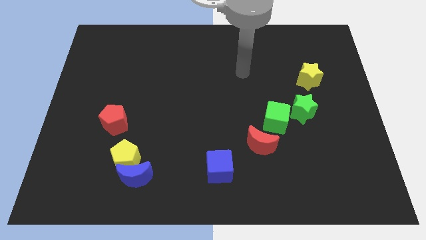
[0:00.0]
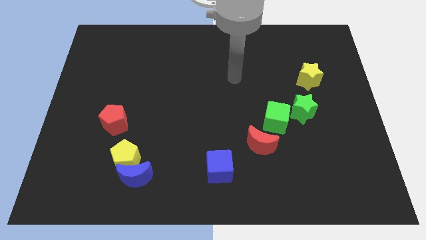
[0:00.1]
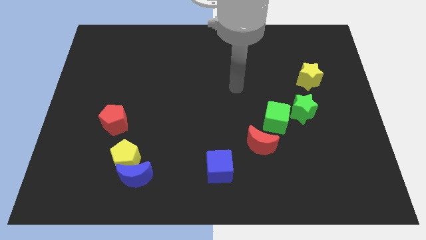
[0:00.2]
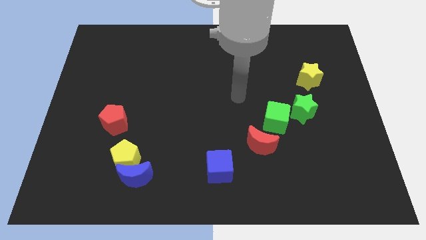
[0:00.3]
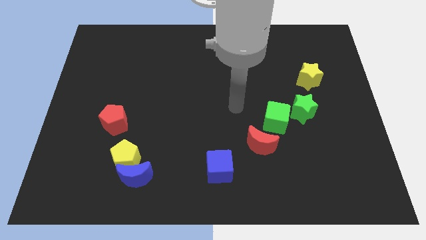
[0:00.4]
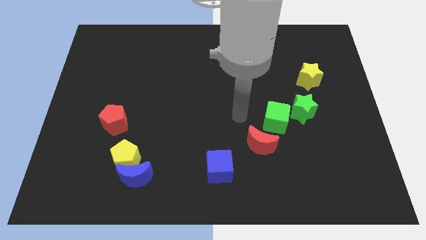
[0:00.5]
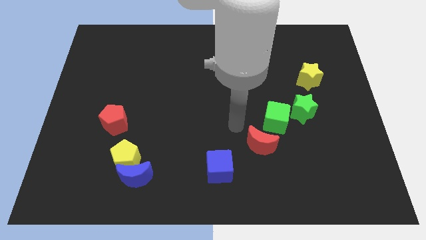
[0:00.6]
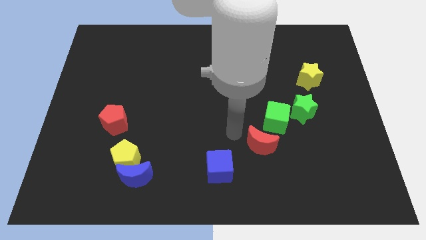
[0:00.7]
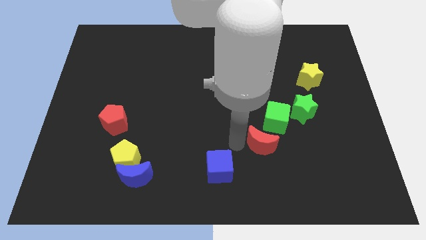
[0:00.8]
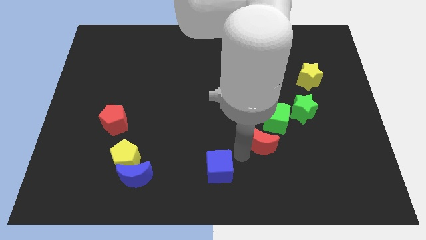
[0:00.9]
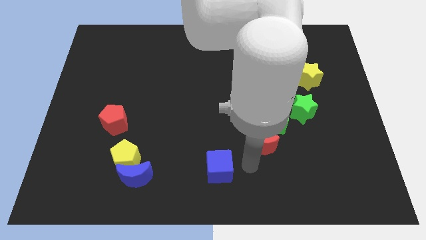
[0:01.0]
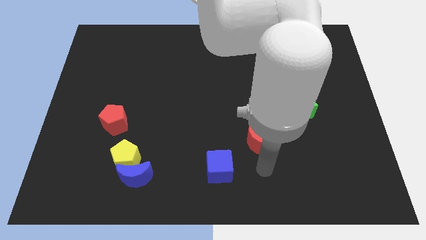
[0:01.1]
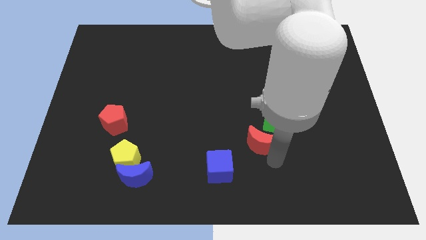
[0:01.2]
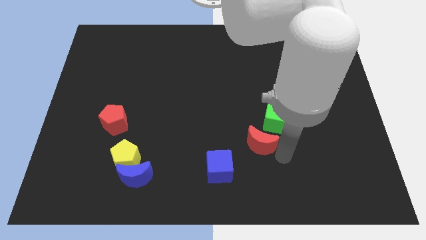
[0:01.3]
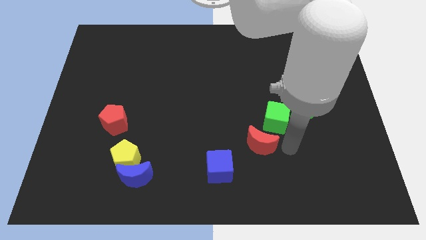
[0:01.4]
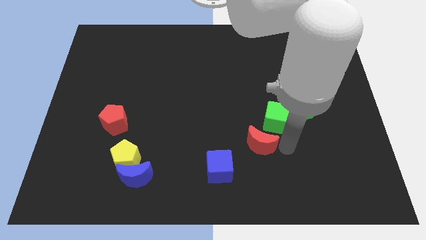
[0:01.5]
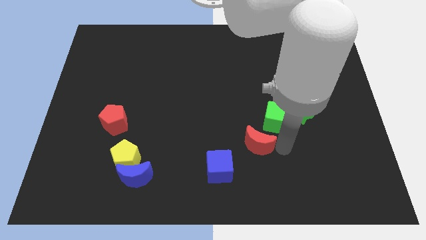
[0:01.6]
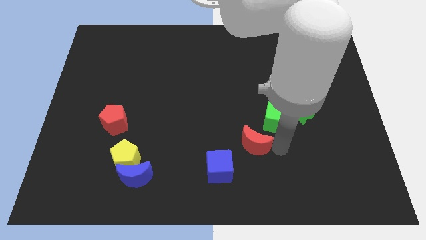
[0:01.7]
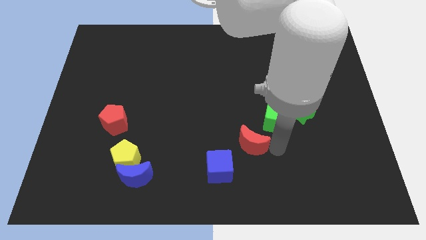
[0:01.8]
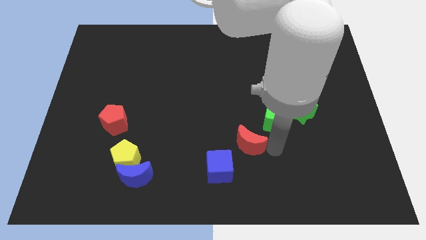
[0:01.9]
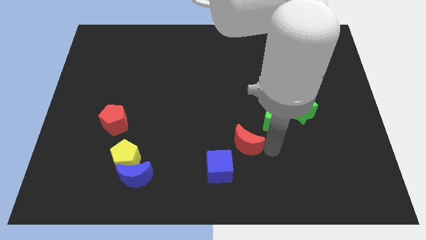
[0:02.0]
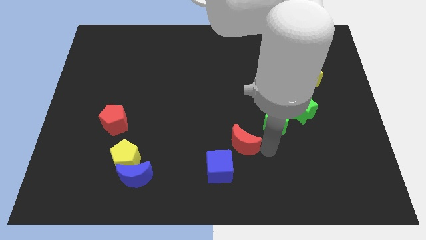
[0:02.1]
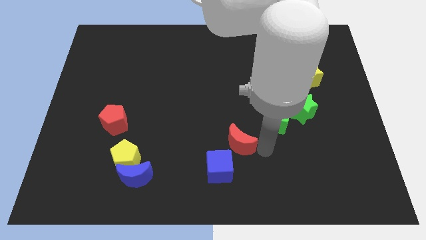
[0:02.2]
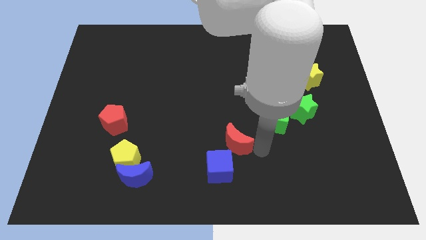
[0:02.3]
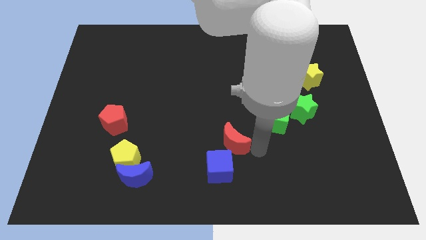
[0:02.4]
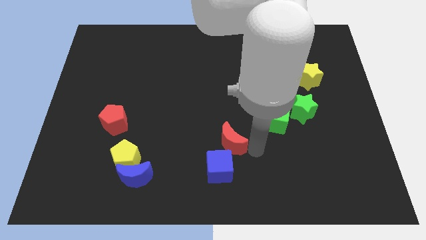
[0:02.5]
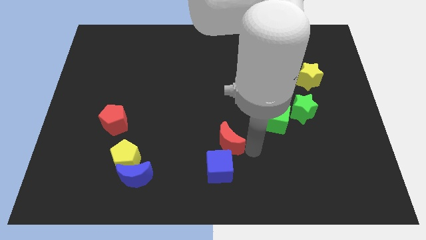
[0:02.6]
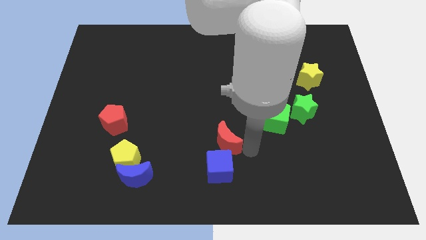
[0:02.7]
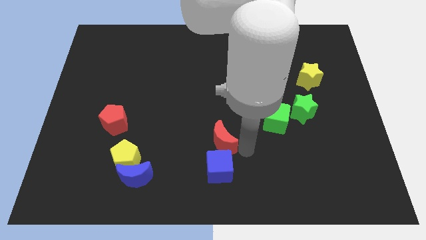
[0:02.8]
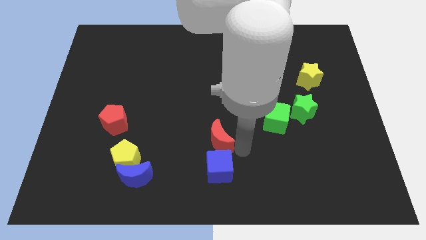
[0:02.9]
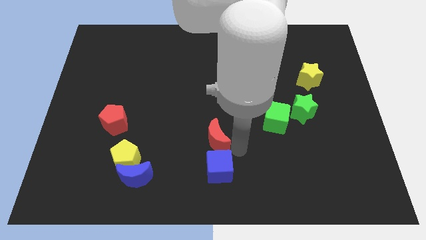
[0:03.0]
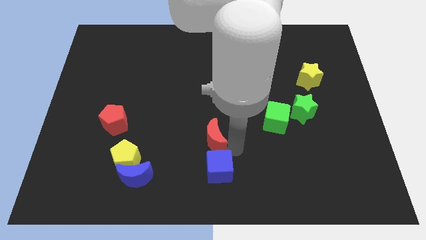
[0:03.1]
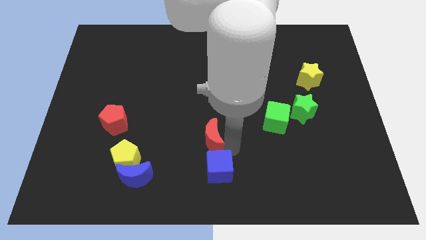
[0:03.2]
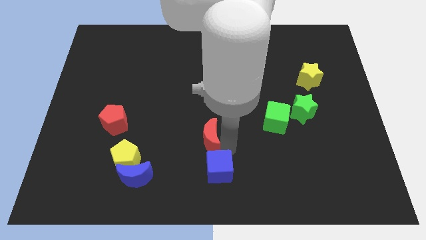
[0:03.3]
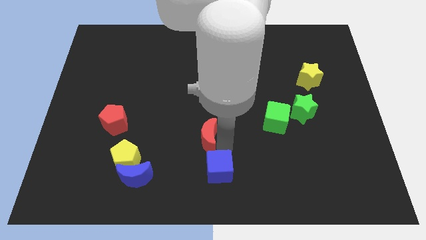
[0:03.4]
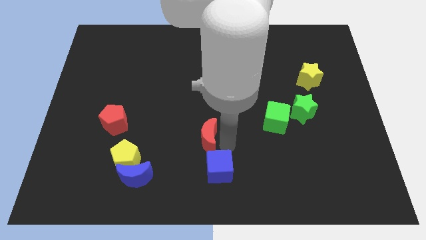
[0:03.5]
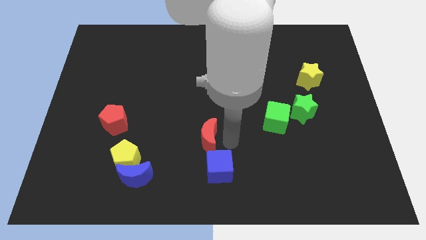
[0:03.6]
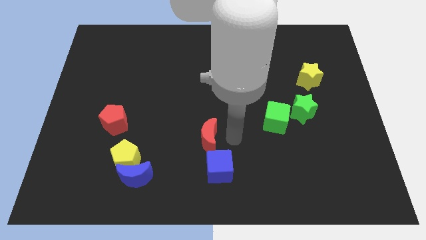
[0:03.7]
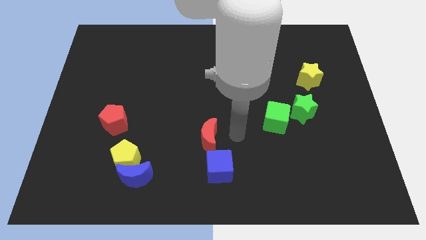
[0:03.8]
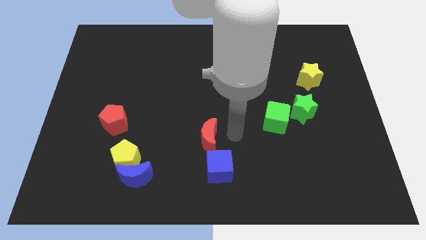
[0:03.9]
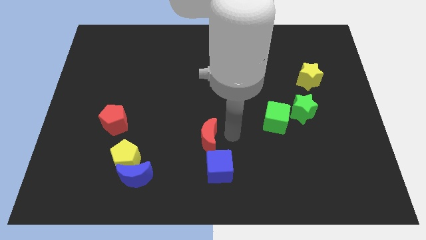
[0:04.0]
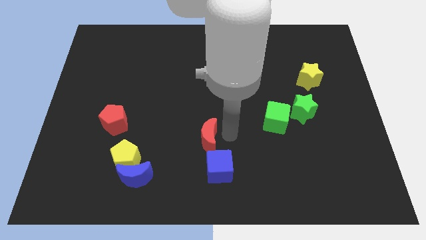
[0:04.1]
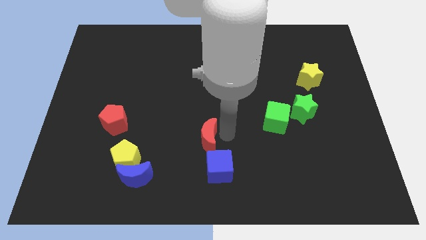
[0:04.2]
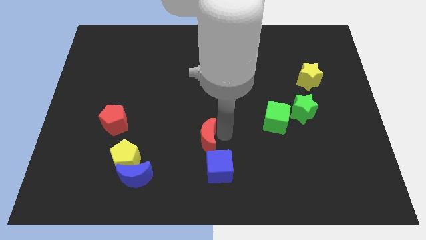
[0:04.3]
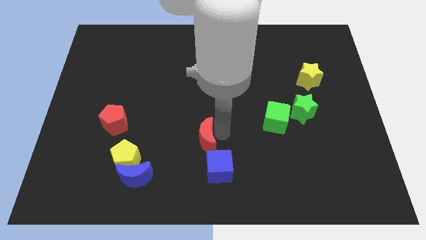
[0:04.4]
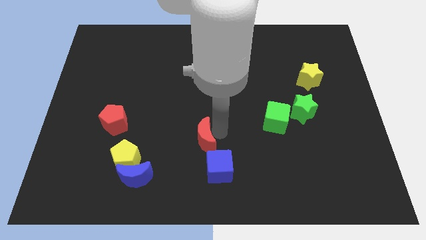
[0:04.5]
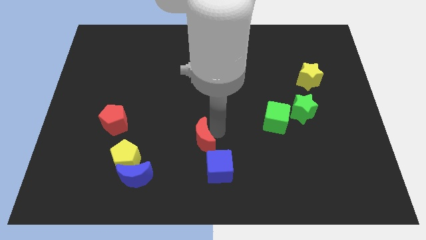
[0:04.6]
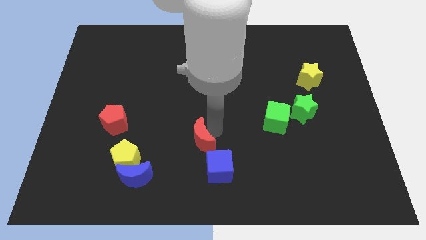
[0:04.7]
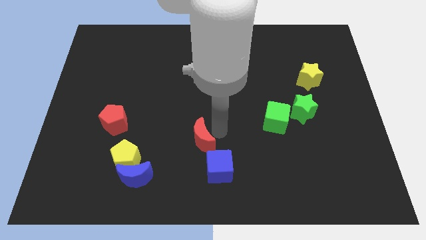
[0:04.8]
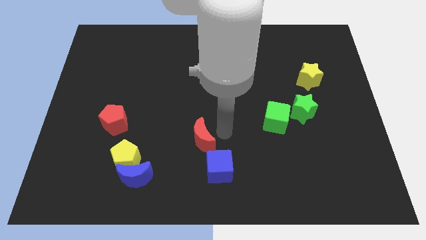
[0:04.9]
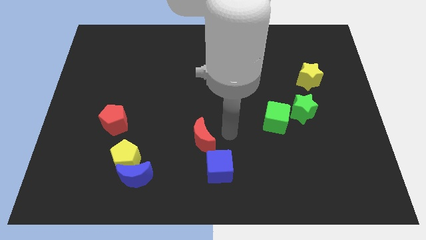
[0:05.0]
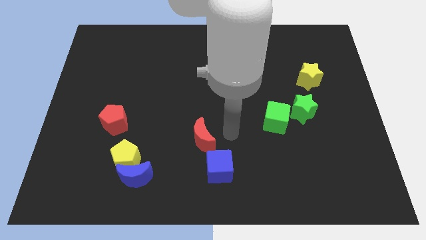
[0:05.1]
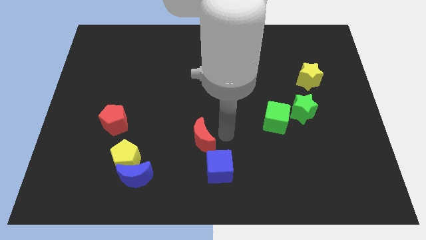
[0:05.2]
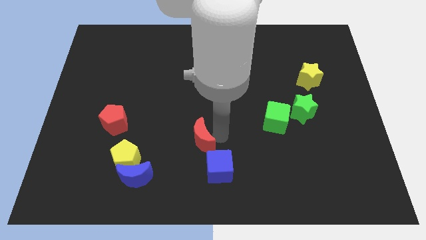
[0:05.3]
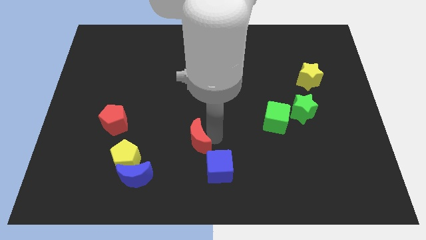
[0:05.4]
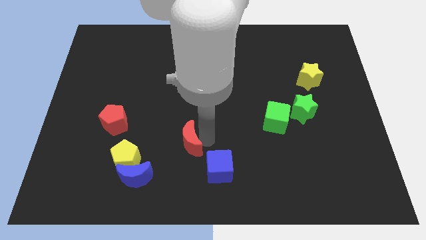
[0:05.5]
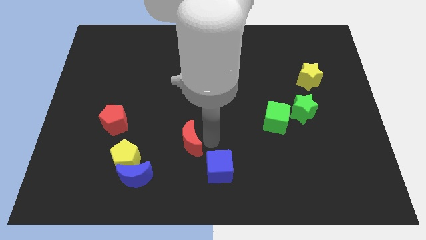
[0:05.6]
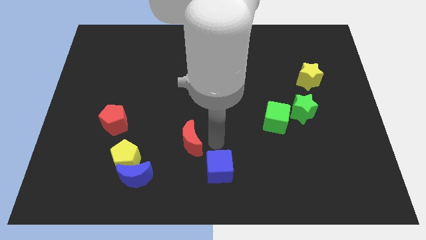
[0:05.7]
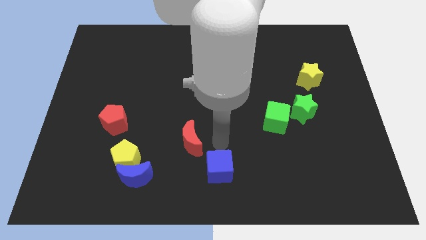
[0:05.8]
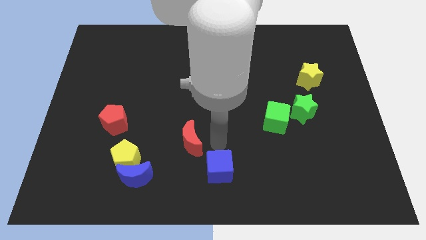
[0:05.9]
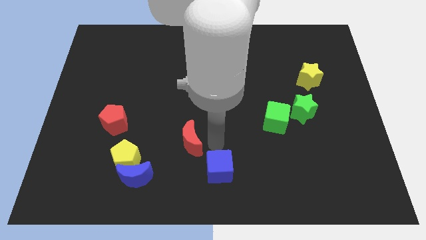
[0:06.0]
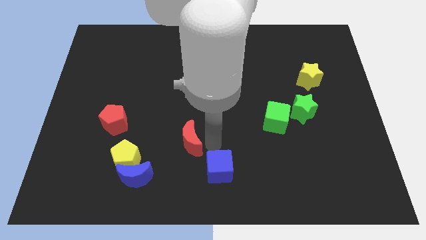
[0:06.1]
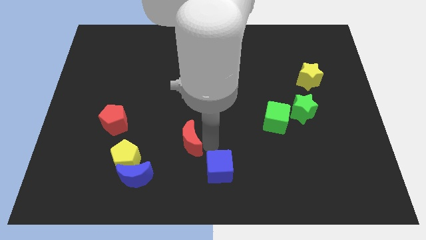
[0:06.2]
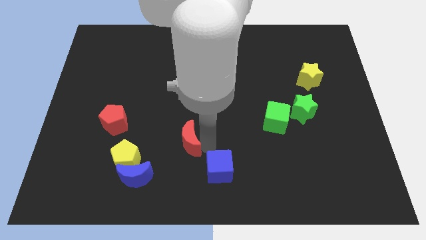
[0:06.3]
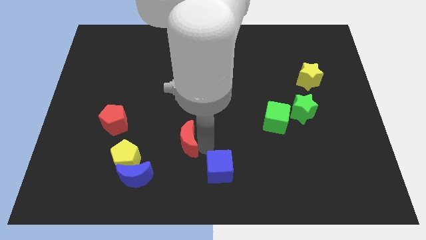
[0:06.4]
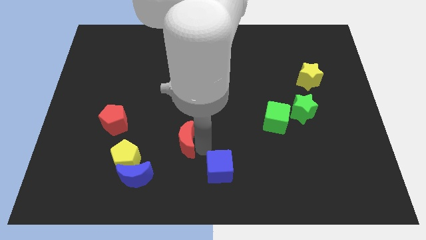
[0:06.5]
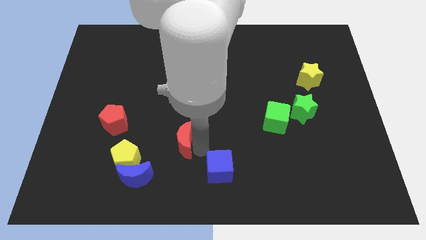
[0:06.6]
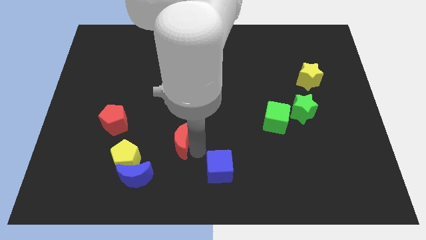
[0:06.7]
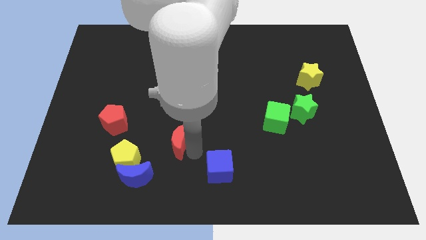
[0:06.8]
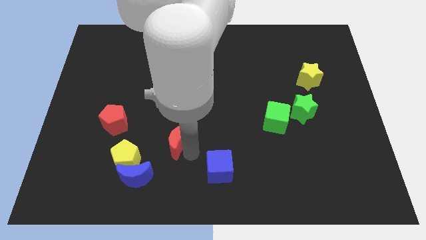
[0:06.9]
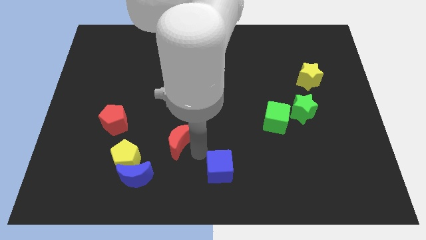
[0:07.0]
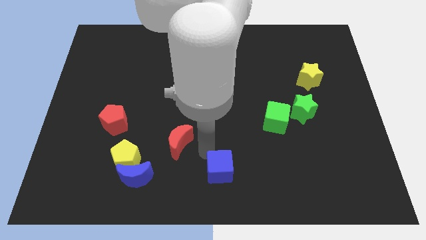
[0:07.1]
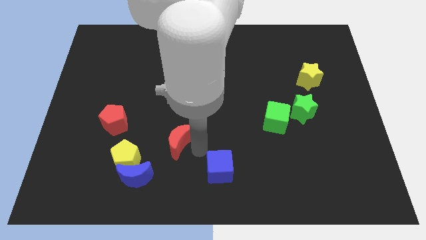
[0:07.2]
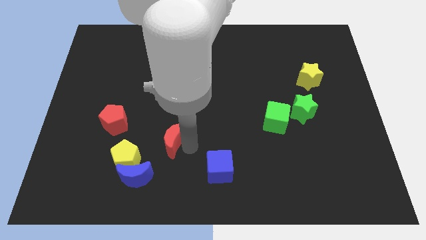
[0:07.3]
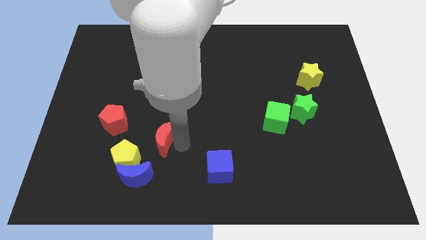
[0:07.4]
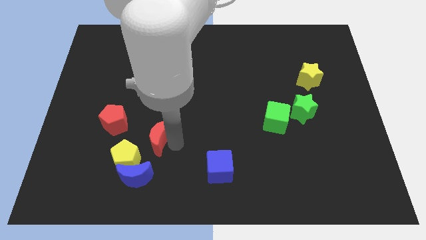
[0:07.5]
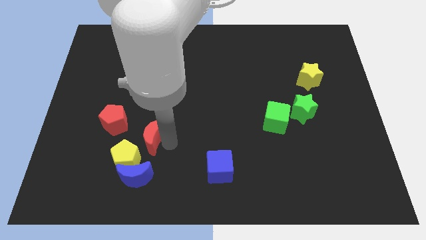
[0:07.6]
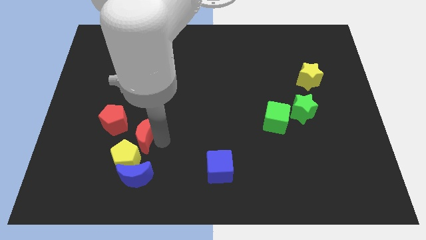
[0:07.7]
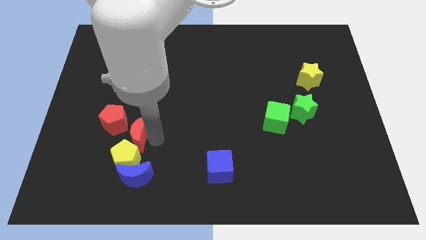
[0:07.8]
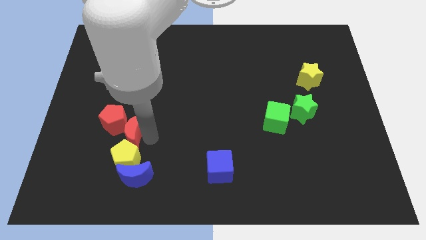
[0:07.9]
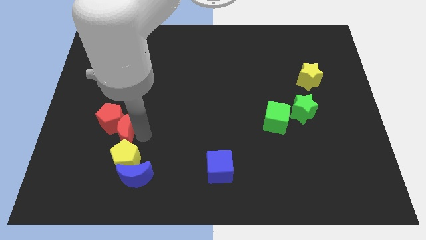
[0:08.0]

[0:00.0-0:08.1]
push the red moon to the top left side of the yellow pentagon
